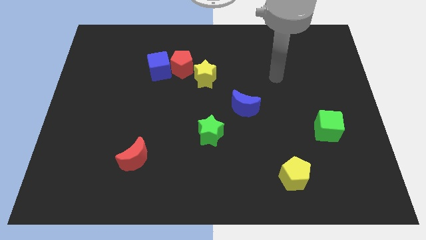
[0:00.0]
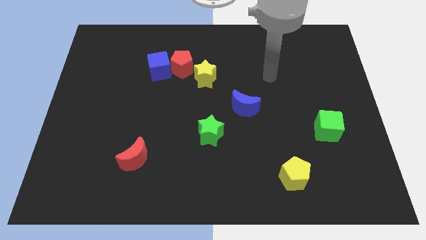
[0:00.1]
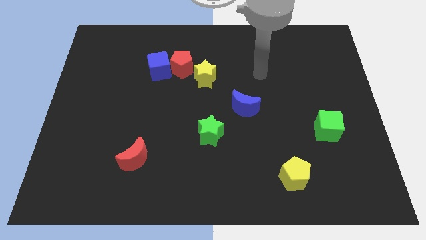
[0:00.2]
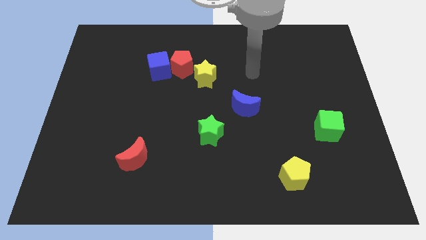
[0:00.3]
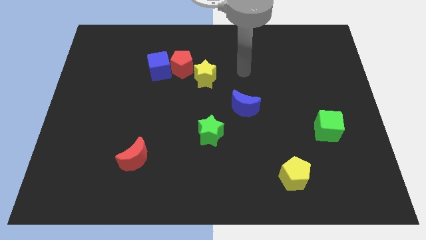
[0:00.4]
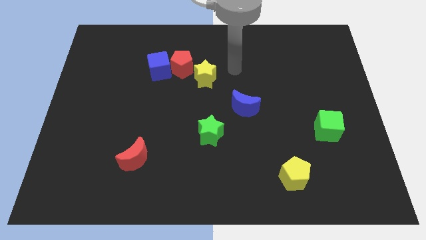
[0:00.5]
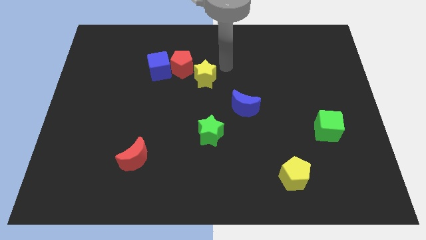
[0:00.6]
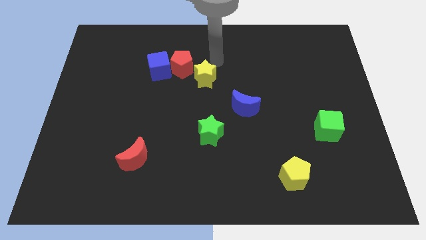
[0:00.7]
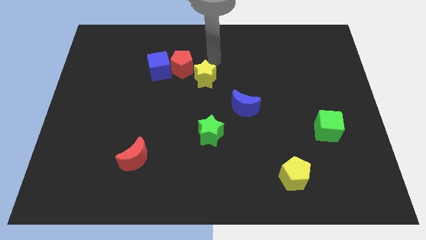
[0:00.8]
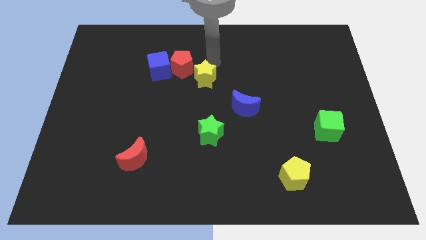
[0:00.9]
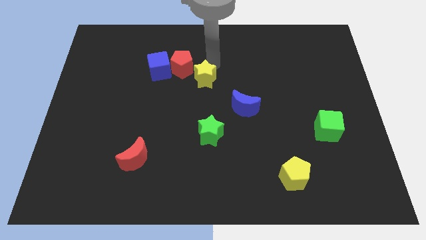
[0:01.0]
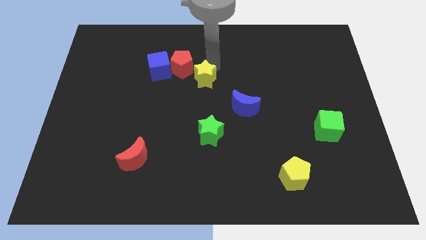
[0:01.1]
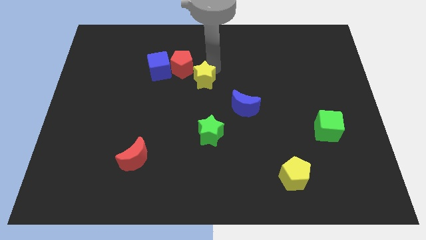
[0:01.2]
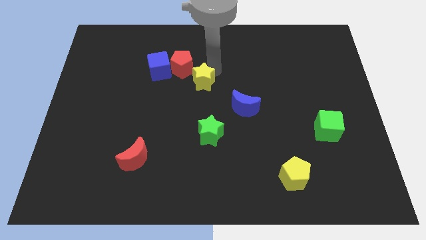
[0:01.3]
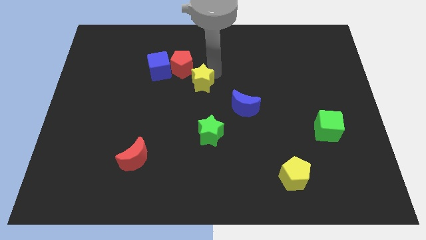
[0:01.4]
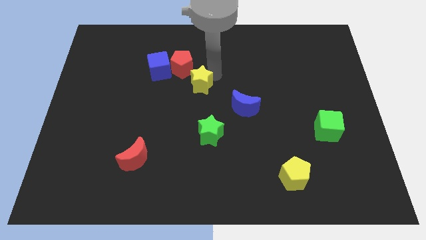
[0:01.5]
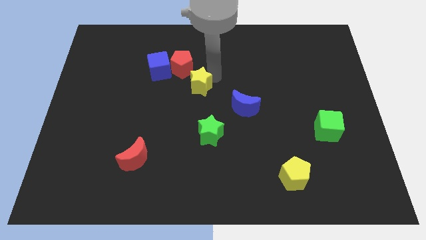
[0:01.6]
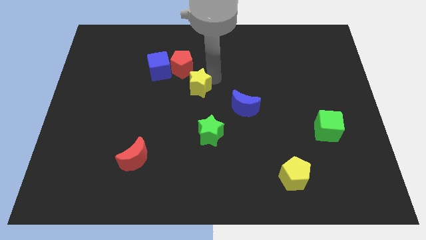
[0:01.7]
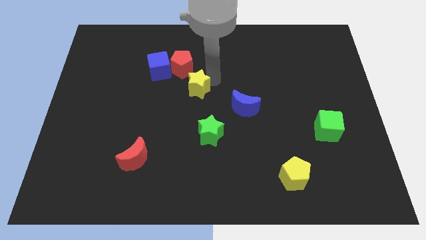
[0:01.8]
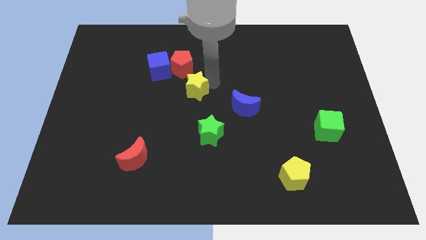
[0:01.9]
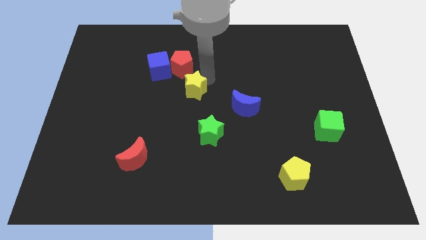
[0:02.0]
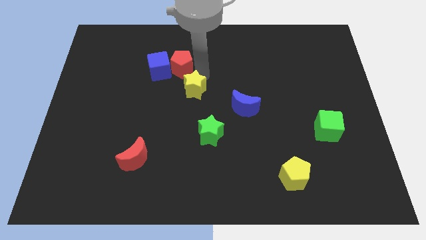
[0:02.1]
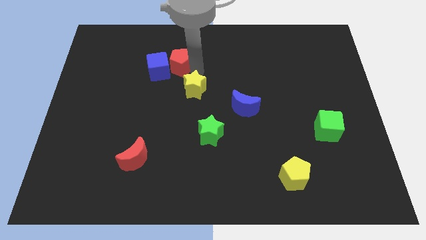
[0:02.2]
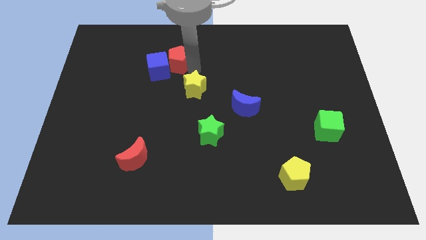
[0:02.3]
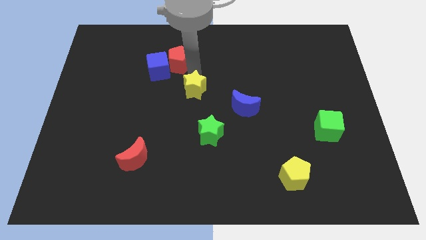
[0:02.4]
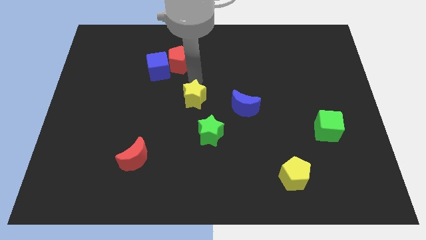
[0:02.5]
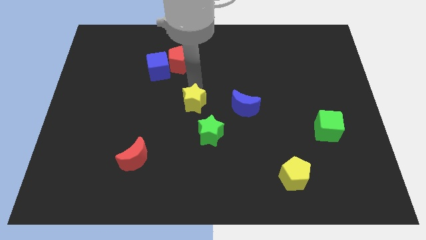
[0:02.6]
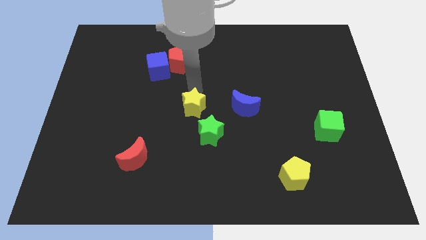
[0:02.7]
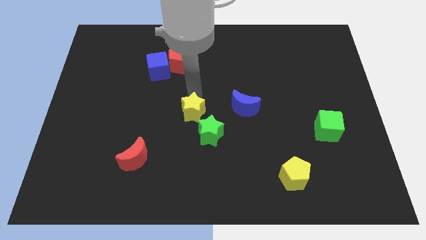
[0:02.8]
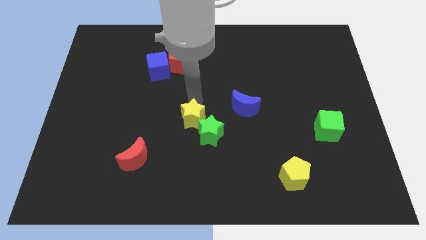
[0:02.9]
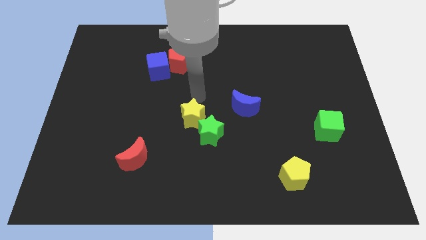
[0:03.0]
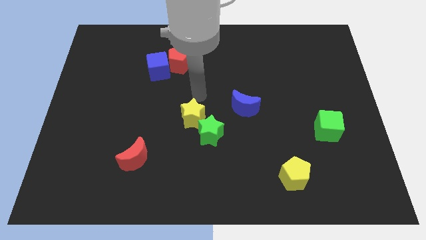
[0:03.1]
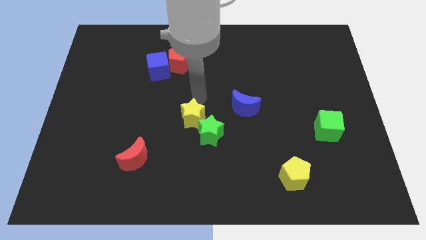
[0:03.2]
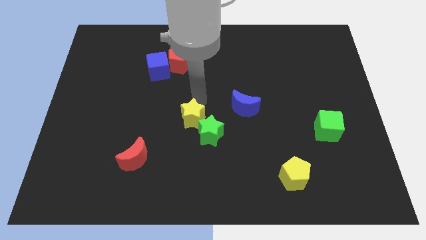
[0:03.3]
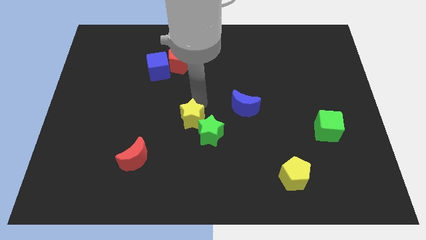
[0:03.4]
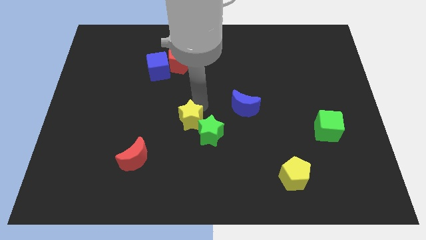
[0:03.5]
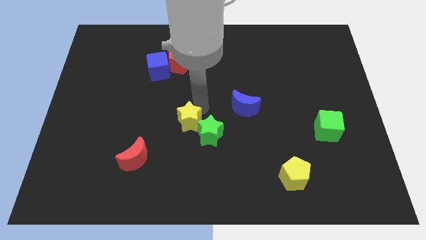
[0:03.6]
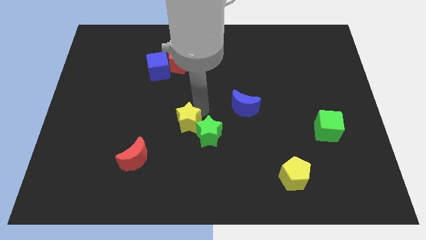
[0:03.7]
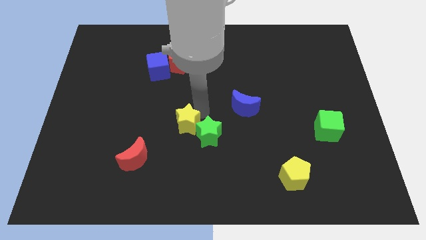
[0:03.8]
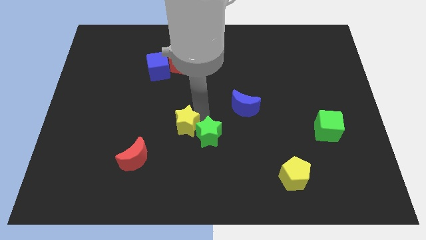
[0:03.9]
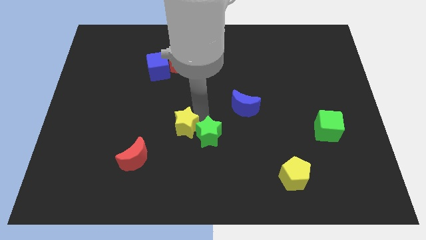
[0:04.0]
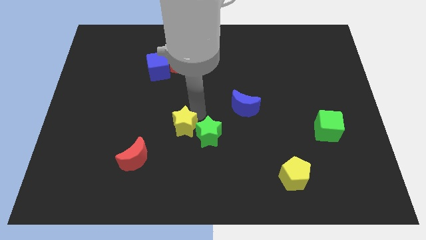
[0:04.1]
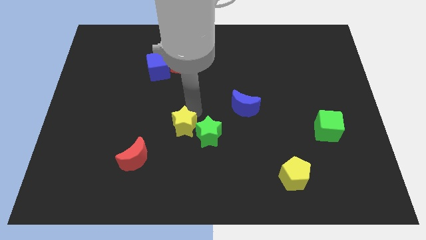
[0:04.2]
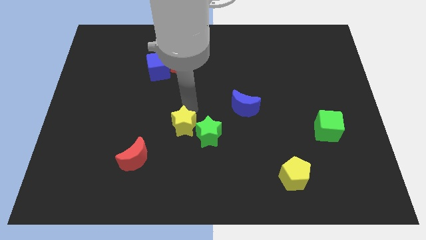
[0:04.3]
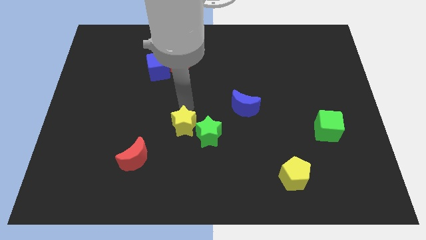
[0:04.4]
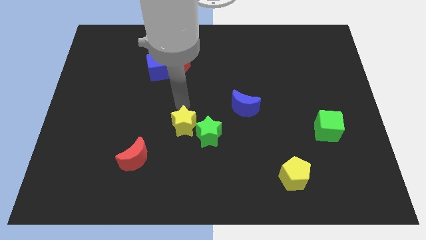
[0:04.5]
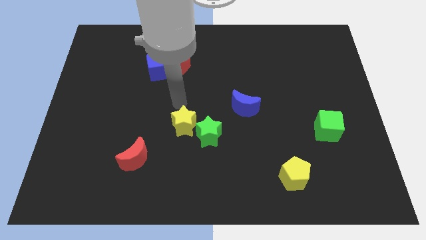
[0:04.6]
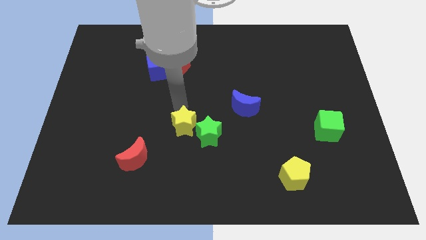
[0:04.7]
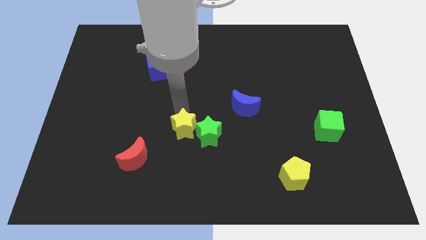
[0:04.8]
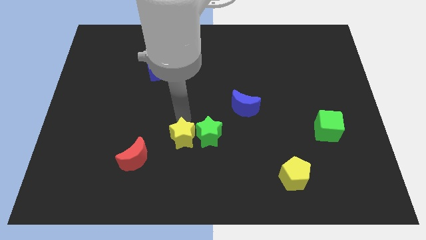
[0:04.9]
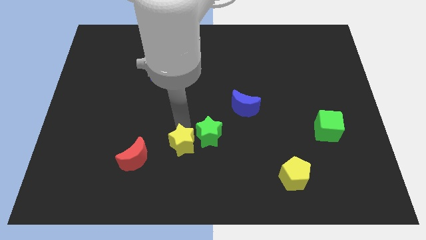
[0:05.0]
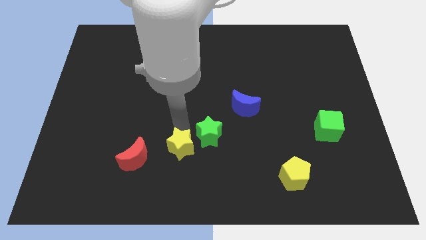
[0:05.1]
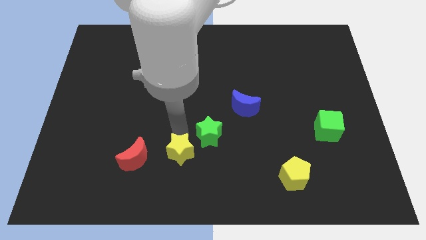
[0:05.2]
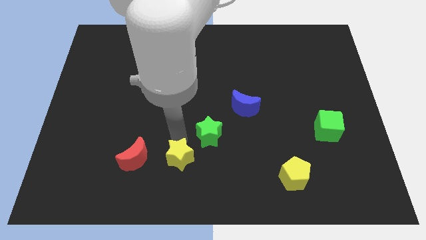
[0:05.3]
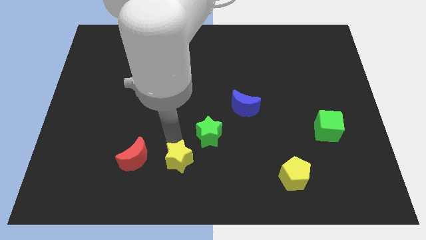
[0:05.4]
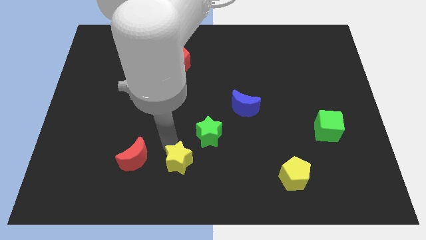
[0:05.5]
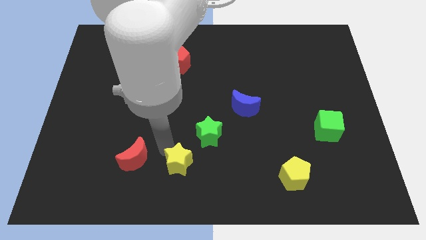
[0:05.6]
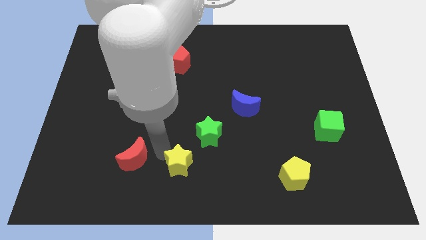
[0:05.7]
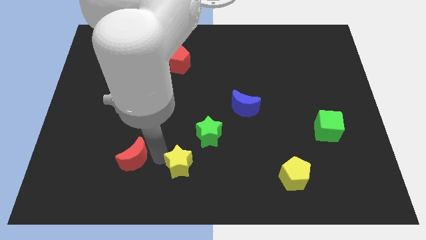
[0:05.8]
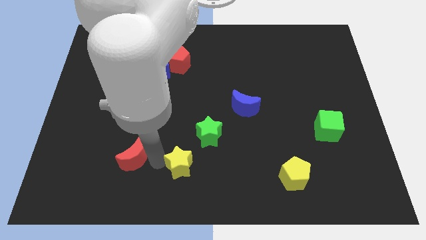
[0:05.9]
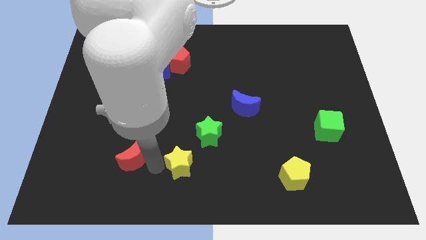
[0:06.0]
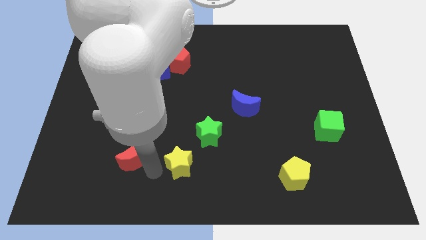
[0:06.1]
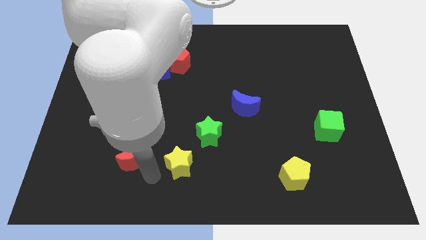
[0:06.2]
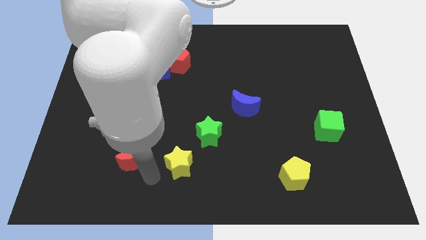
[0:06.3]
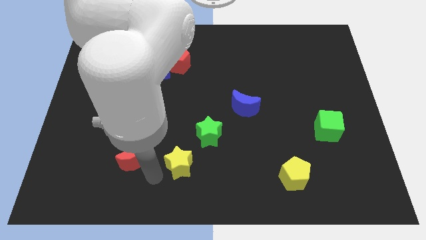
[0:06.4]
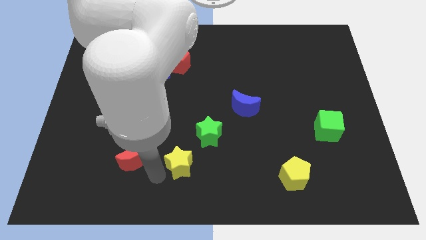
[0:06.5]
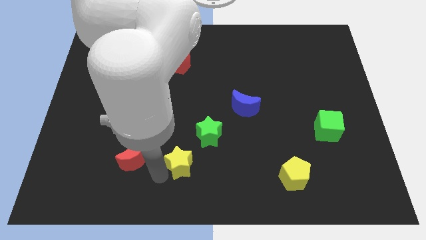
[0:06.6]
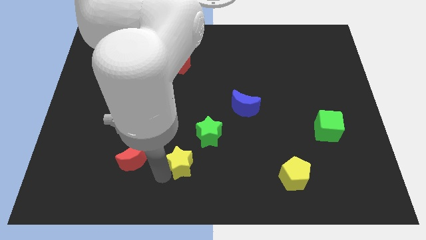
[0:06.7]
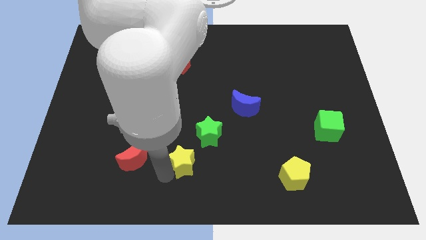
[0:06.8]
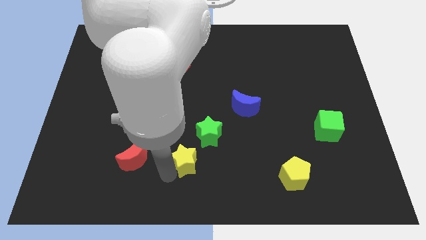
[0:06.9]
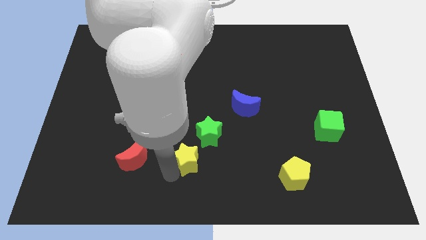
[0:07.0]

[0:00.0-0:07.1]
slide the yellow star below the green star
